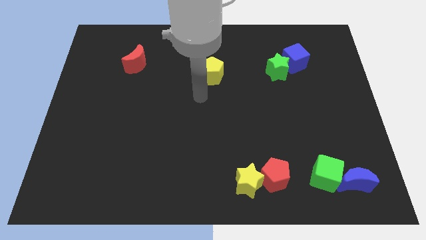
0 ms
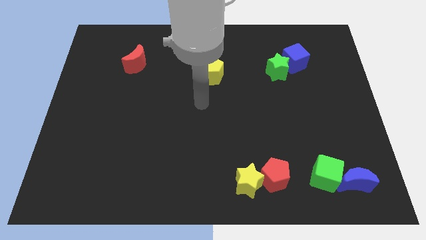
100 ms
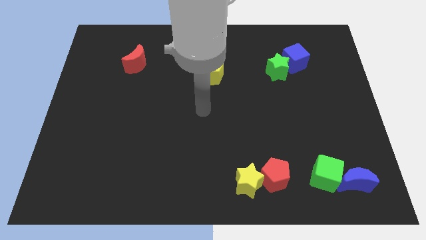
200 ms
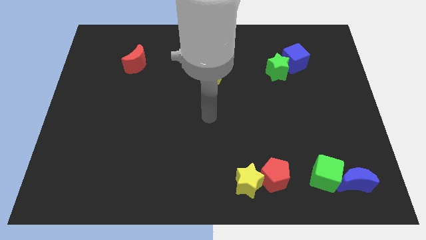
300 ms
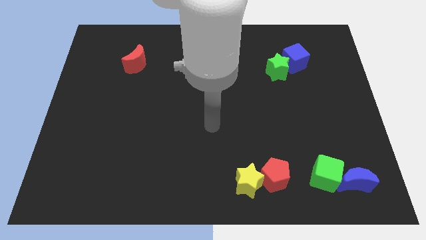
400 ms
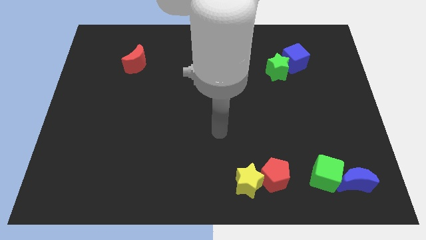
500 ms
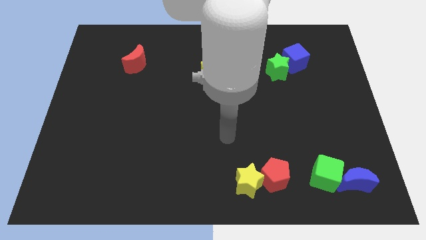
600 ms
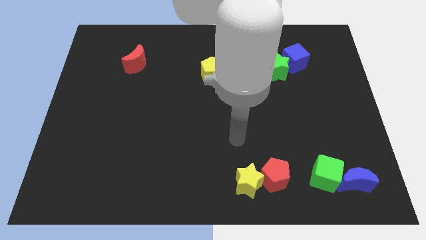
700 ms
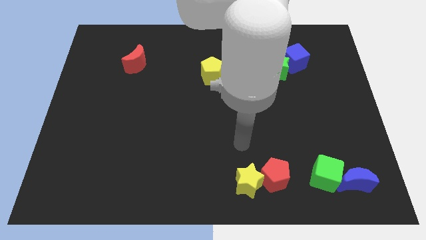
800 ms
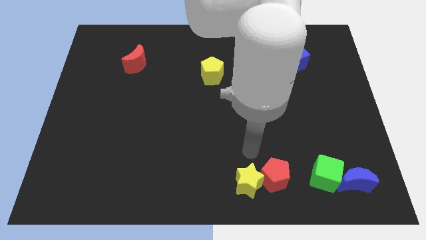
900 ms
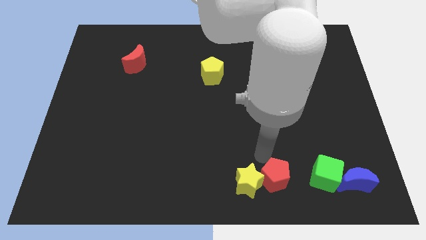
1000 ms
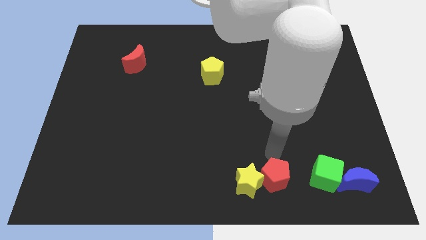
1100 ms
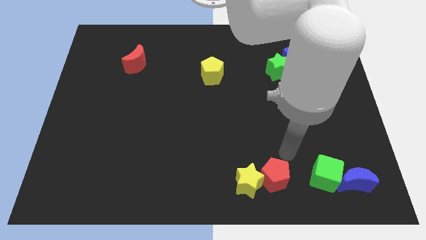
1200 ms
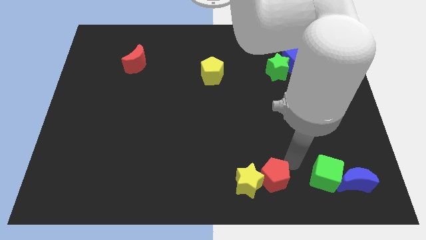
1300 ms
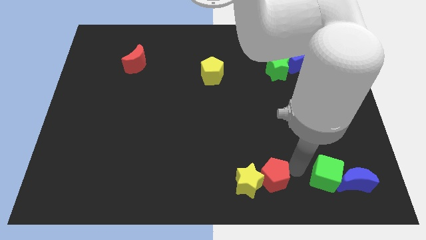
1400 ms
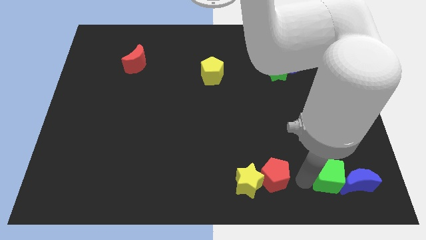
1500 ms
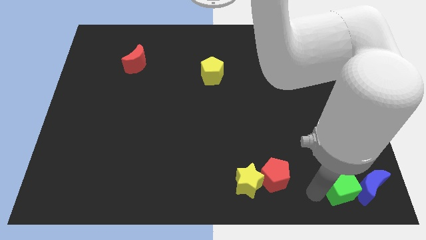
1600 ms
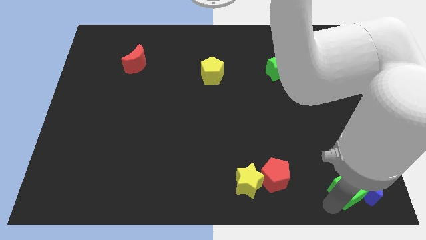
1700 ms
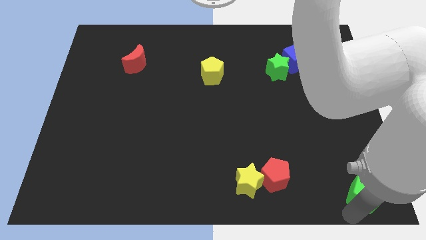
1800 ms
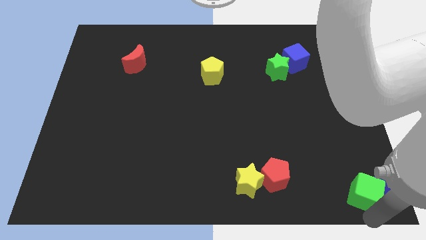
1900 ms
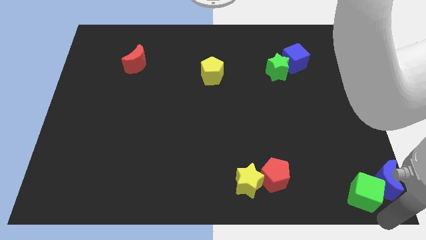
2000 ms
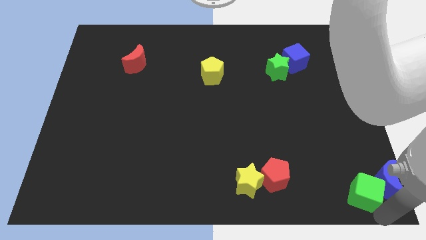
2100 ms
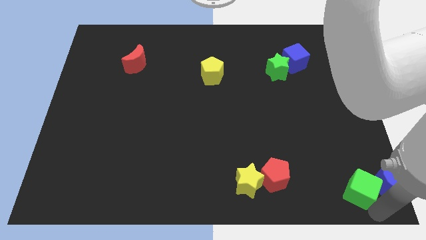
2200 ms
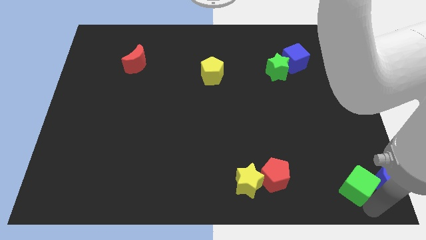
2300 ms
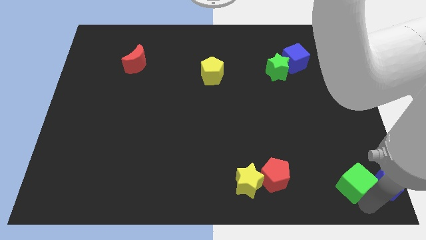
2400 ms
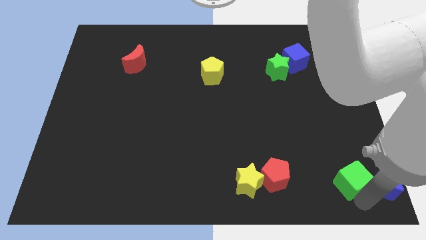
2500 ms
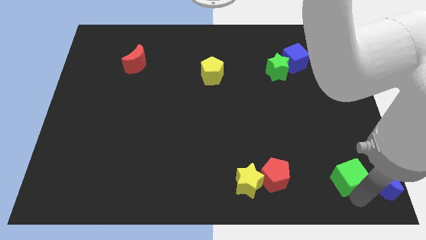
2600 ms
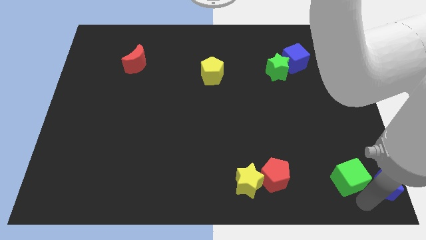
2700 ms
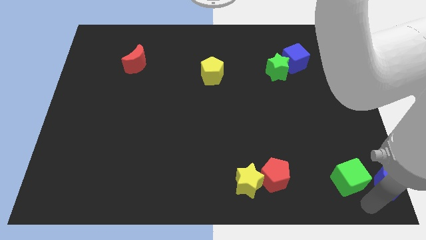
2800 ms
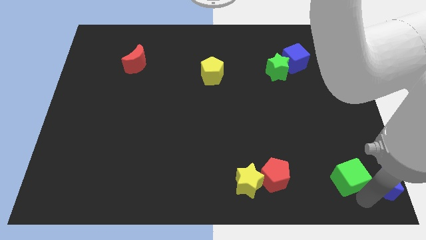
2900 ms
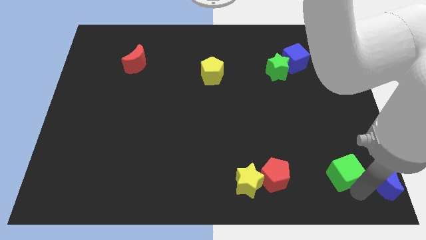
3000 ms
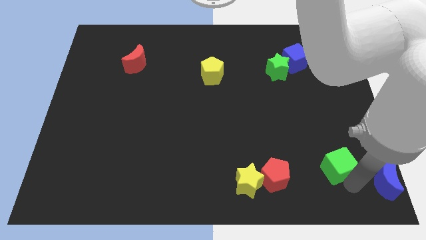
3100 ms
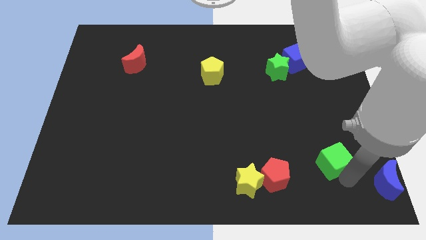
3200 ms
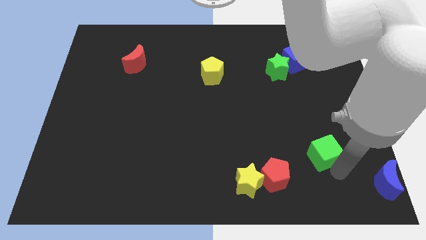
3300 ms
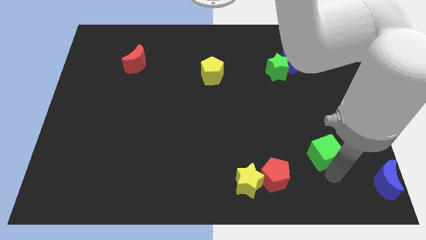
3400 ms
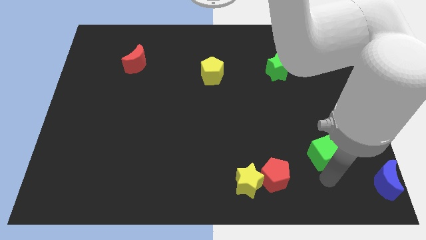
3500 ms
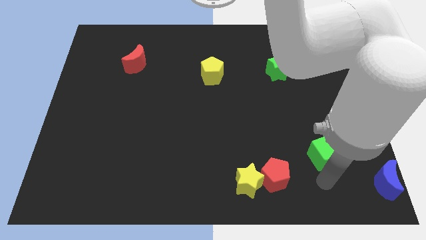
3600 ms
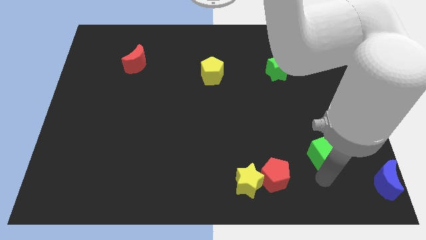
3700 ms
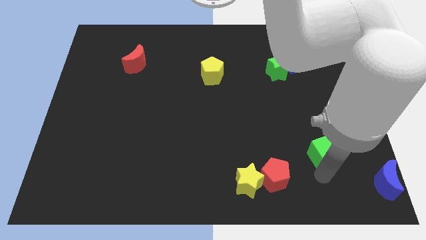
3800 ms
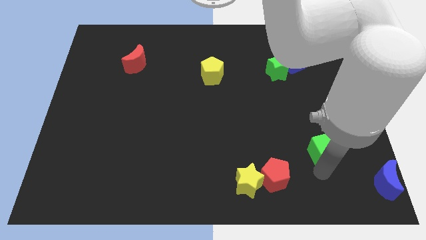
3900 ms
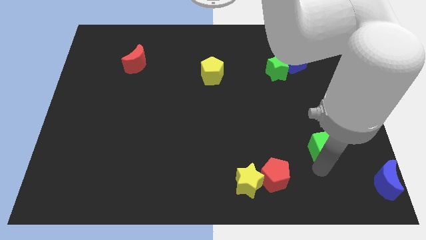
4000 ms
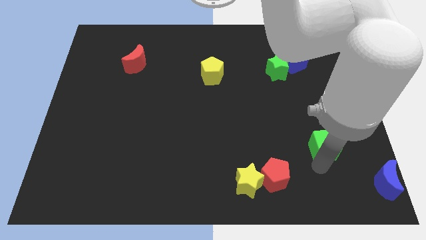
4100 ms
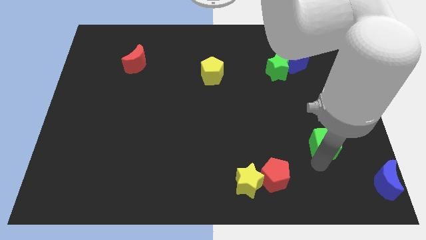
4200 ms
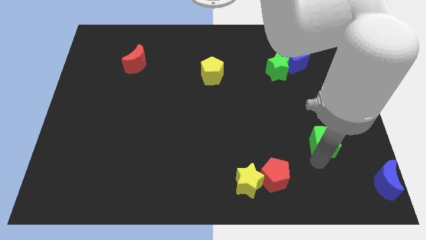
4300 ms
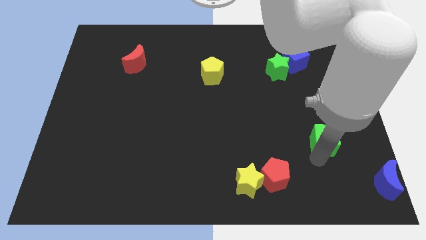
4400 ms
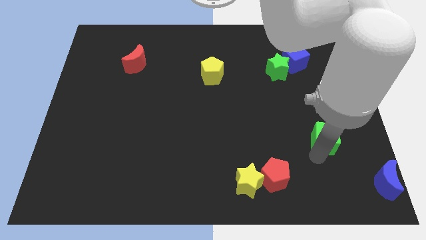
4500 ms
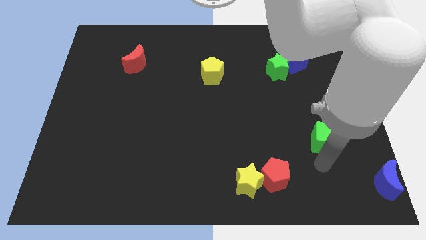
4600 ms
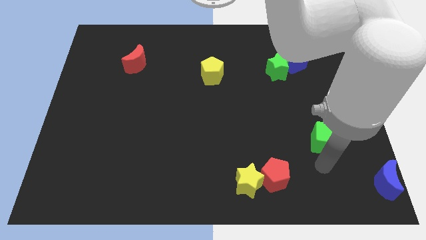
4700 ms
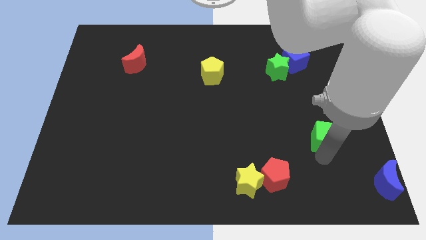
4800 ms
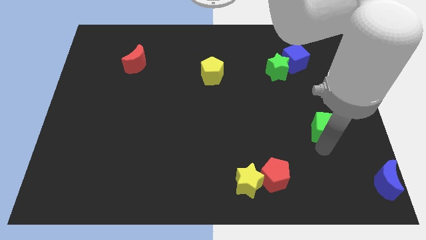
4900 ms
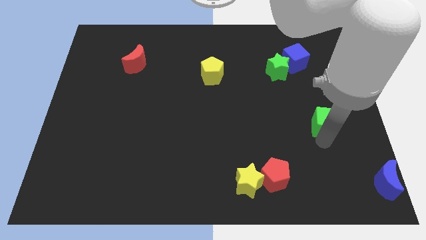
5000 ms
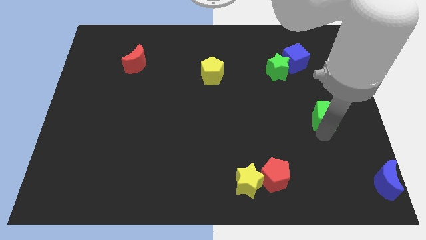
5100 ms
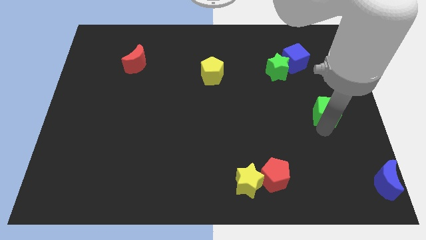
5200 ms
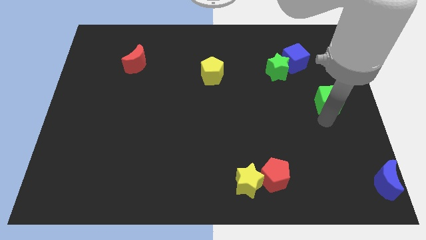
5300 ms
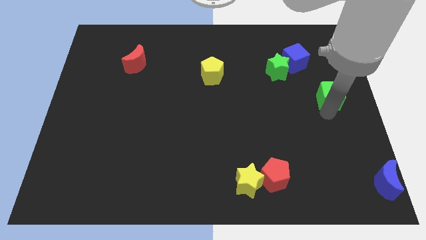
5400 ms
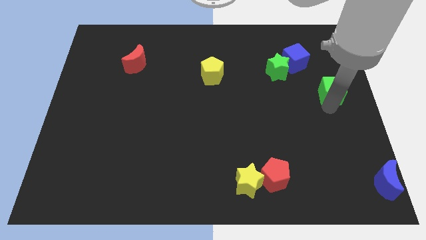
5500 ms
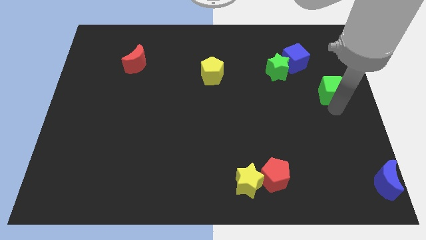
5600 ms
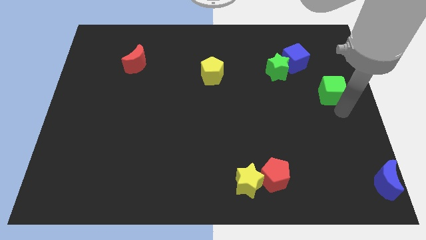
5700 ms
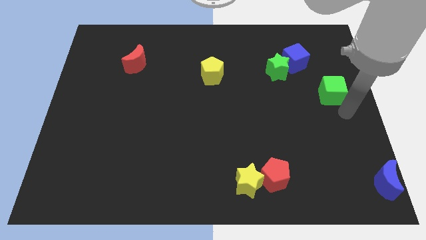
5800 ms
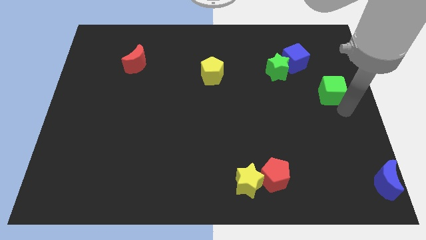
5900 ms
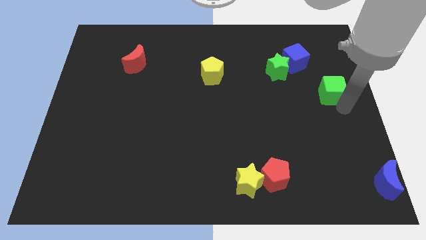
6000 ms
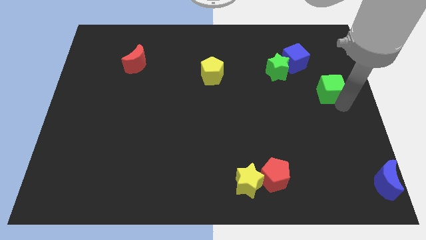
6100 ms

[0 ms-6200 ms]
slide the green cube to the bottom right of the blue cube
